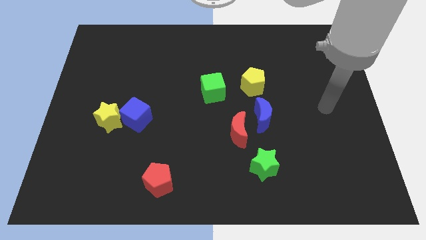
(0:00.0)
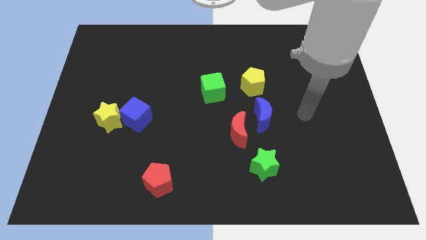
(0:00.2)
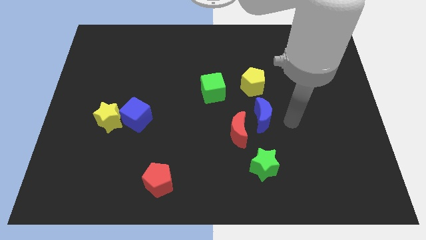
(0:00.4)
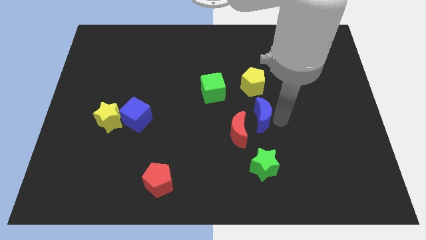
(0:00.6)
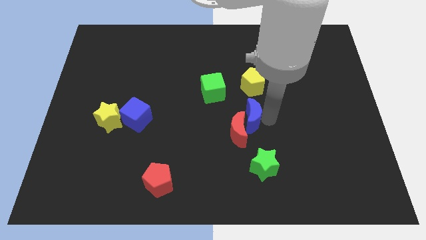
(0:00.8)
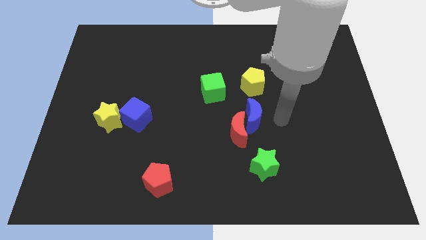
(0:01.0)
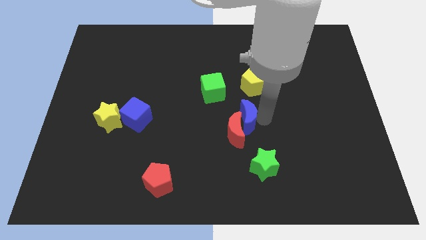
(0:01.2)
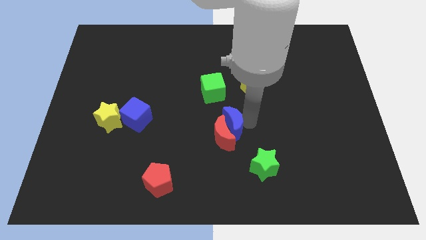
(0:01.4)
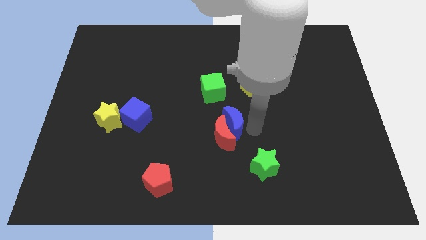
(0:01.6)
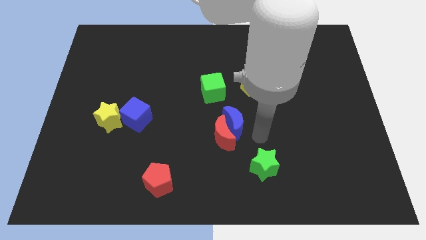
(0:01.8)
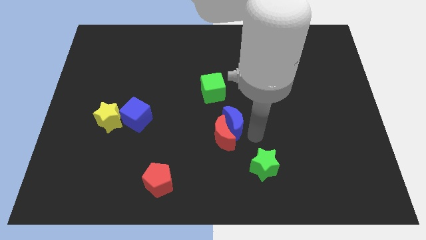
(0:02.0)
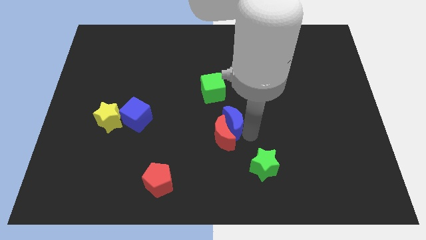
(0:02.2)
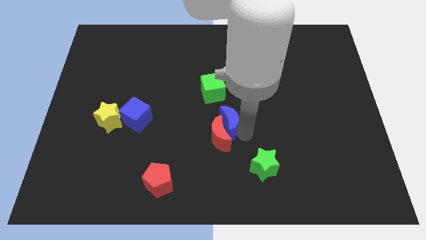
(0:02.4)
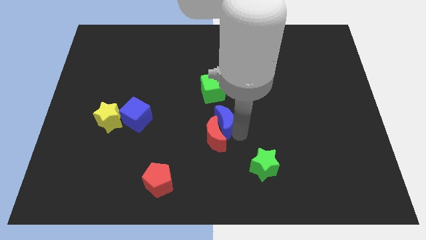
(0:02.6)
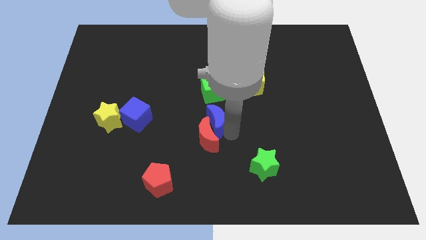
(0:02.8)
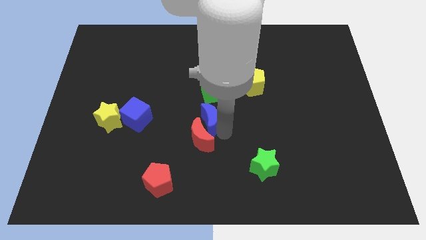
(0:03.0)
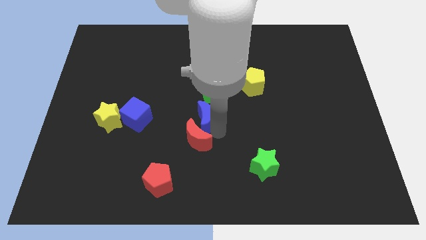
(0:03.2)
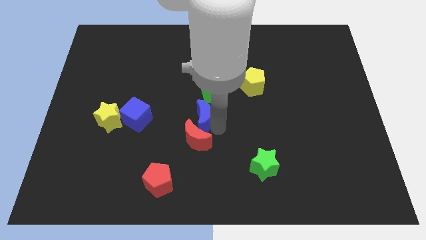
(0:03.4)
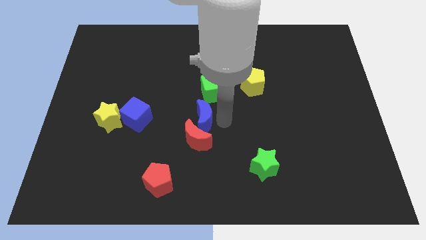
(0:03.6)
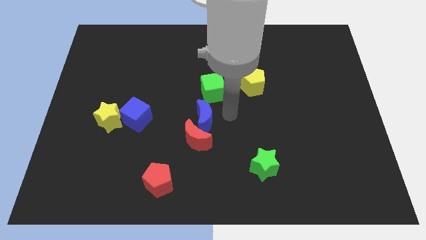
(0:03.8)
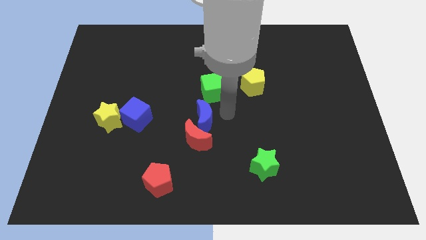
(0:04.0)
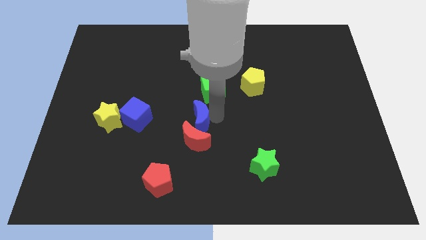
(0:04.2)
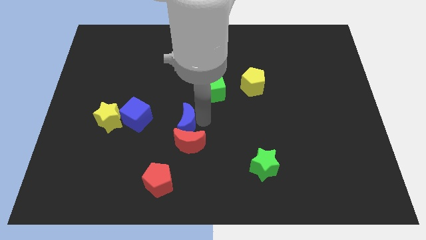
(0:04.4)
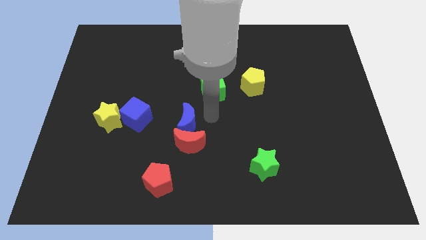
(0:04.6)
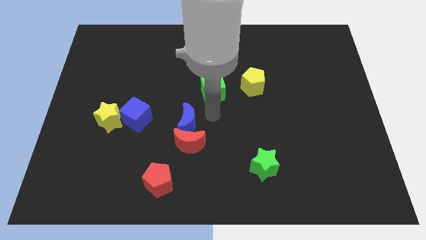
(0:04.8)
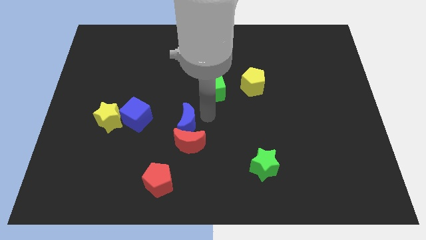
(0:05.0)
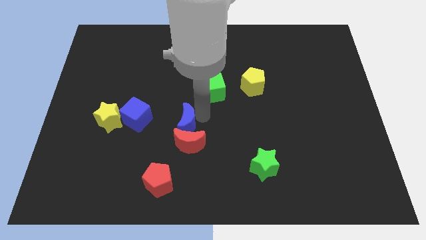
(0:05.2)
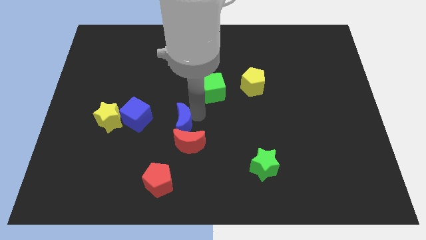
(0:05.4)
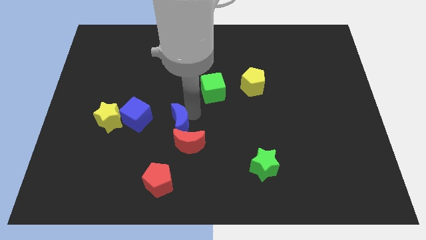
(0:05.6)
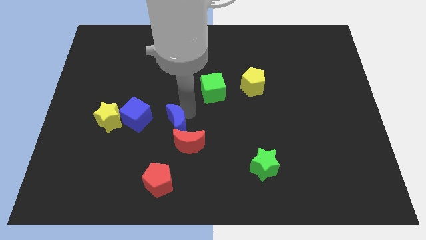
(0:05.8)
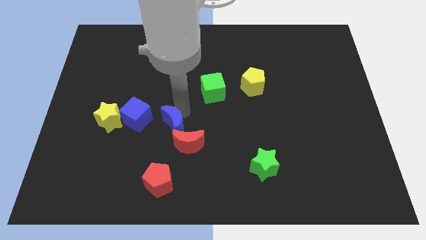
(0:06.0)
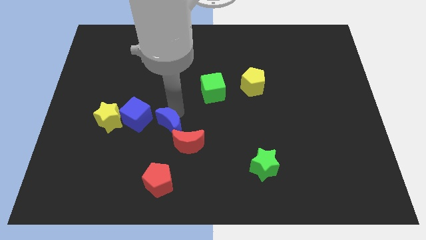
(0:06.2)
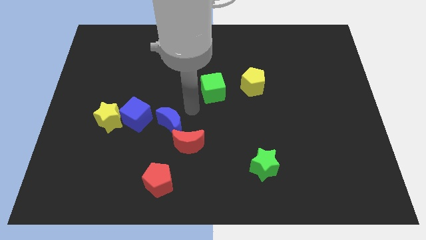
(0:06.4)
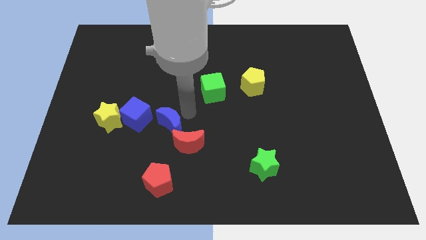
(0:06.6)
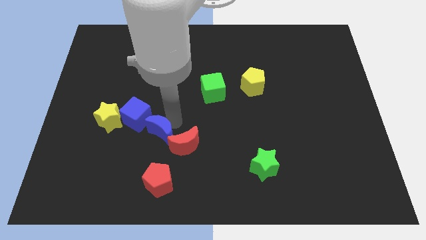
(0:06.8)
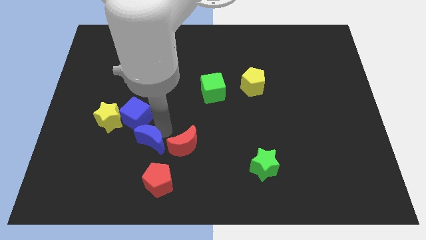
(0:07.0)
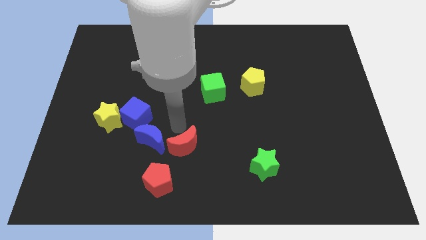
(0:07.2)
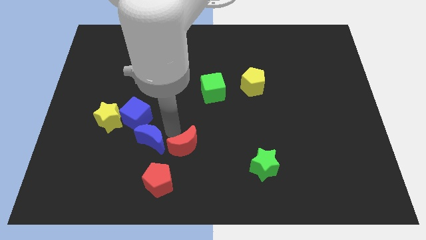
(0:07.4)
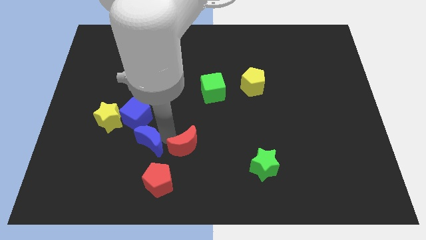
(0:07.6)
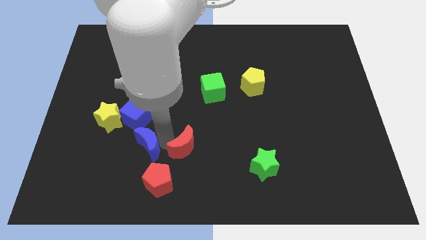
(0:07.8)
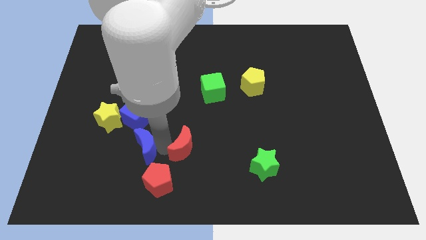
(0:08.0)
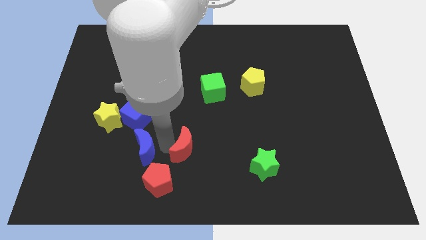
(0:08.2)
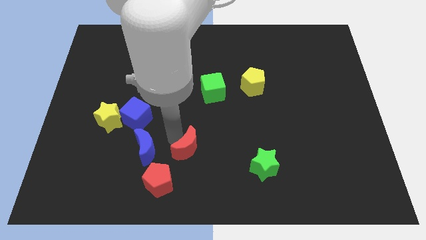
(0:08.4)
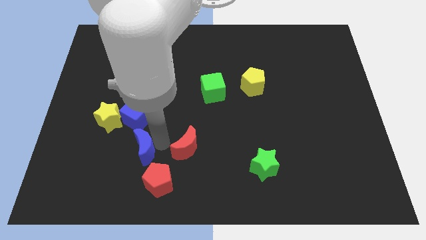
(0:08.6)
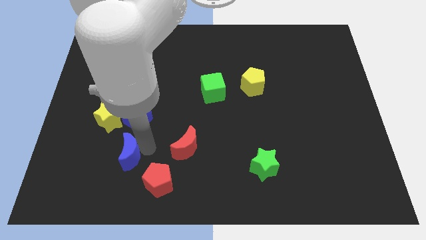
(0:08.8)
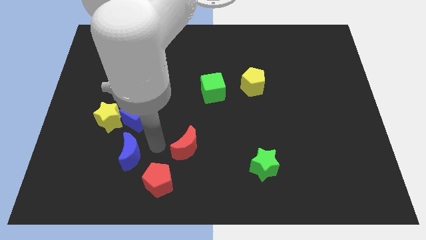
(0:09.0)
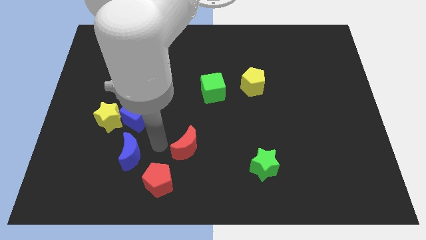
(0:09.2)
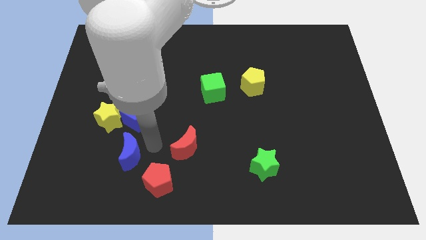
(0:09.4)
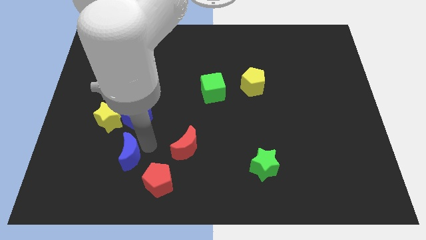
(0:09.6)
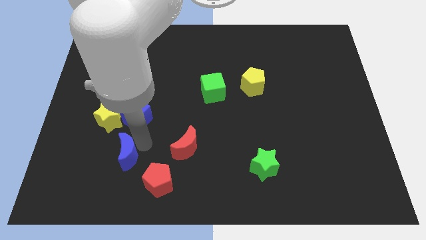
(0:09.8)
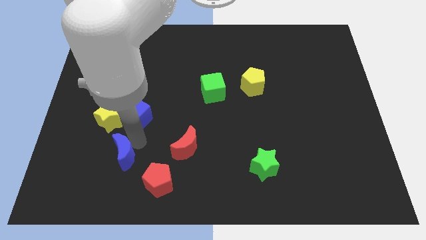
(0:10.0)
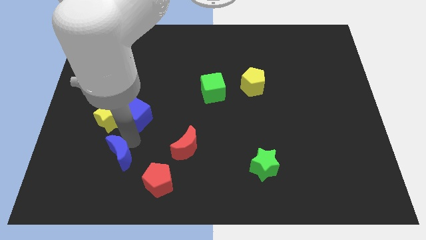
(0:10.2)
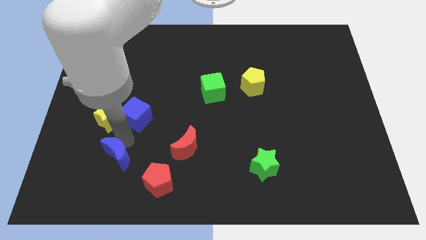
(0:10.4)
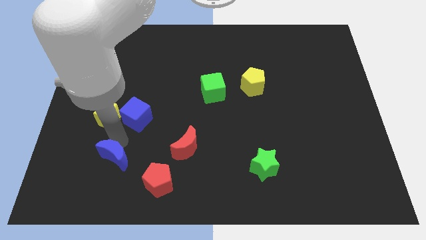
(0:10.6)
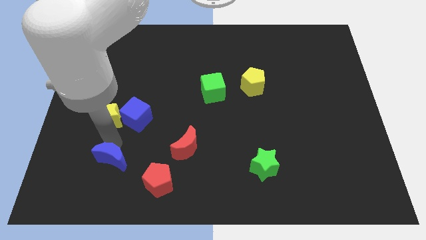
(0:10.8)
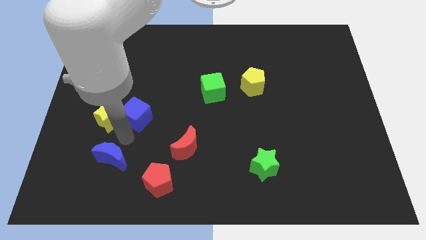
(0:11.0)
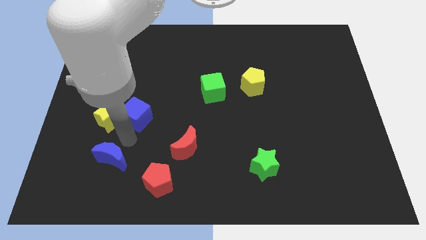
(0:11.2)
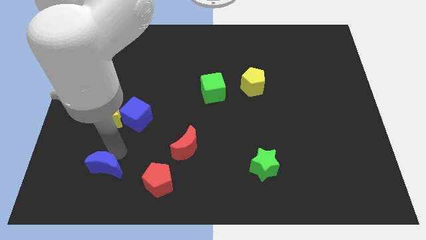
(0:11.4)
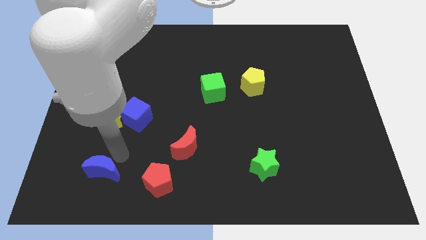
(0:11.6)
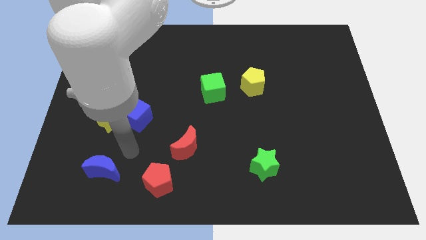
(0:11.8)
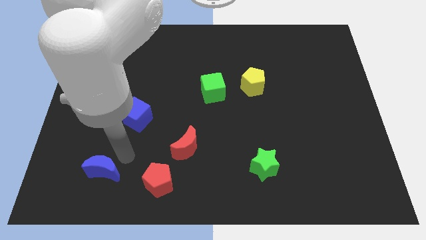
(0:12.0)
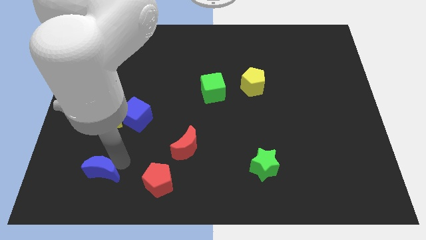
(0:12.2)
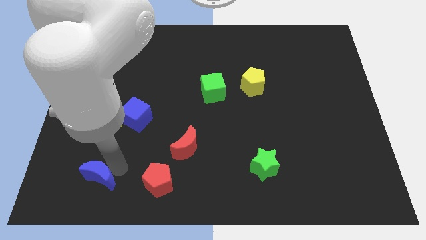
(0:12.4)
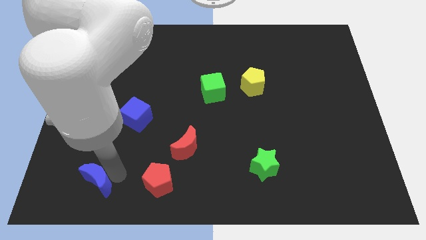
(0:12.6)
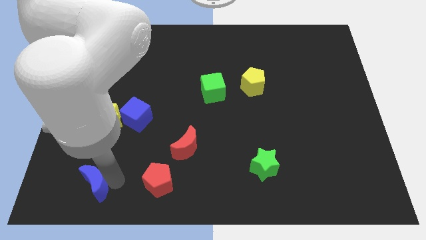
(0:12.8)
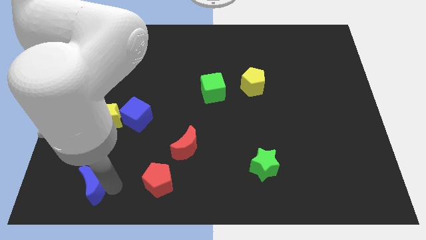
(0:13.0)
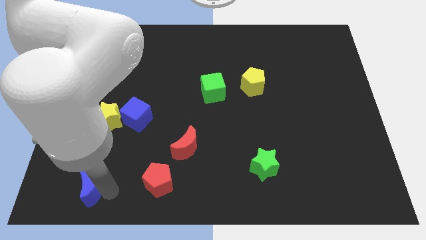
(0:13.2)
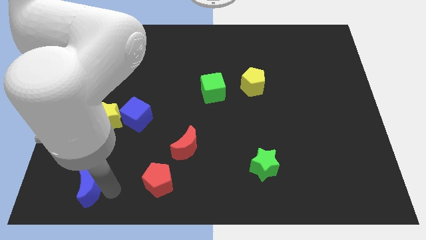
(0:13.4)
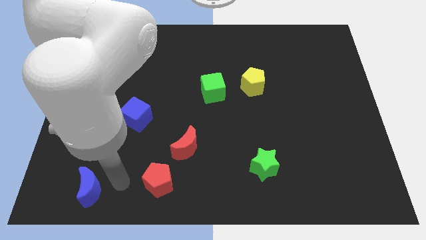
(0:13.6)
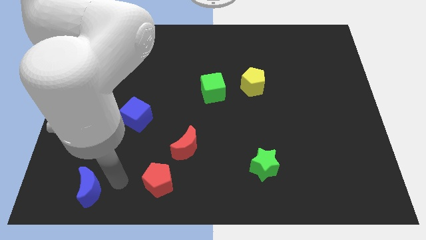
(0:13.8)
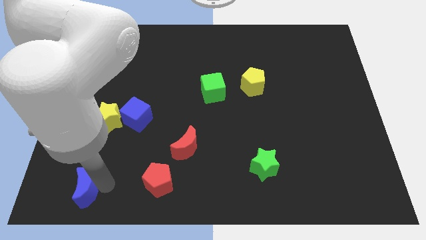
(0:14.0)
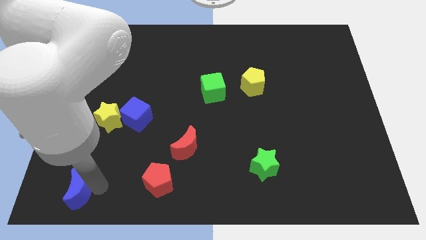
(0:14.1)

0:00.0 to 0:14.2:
push the blue moon to the lower left corner

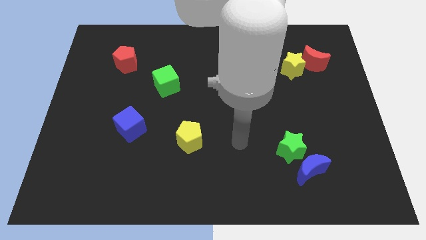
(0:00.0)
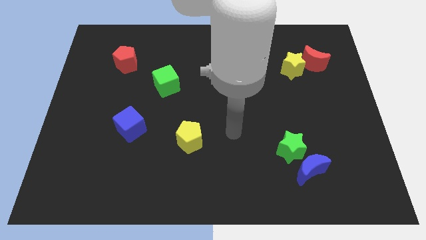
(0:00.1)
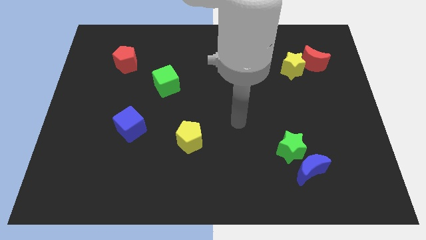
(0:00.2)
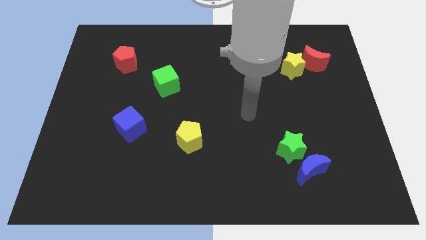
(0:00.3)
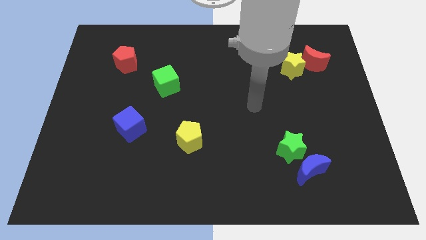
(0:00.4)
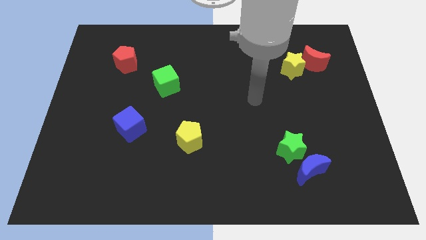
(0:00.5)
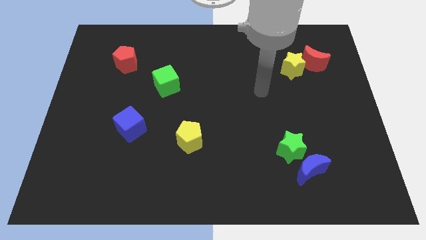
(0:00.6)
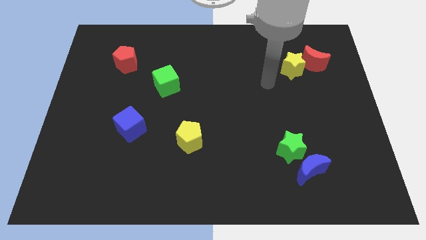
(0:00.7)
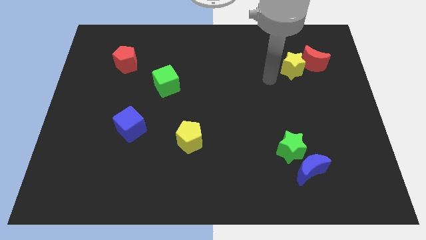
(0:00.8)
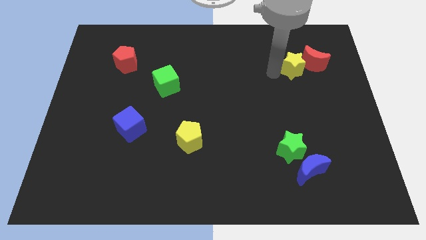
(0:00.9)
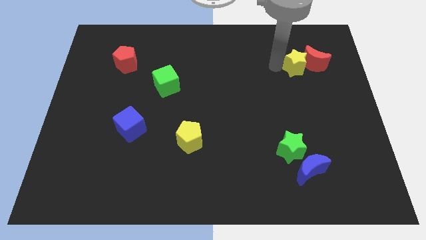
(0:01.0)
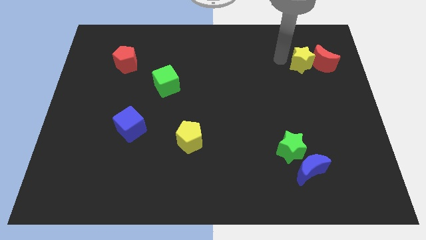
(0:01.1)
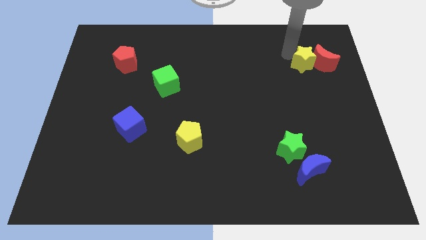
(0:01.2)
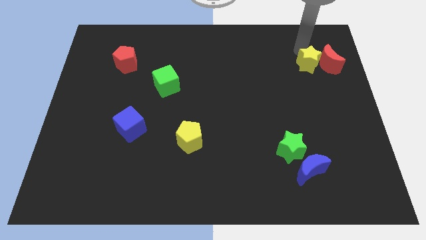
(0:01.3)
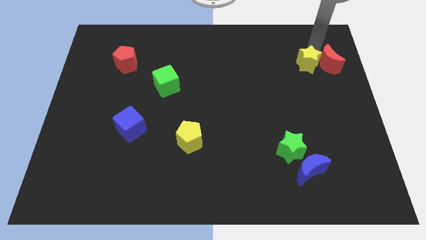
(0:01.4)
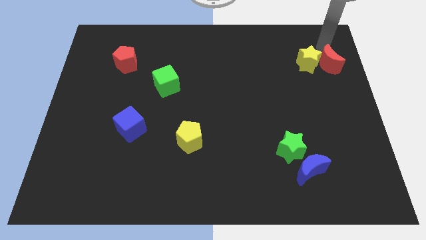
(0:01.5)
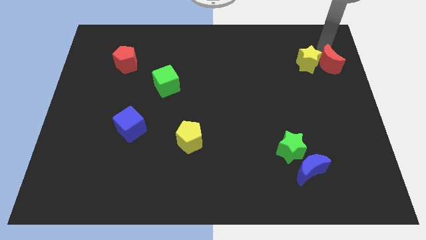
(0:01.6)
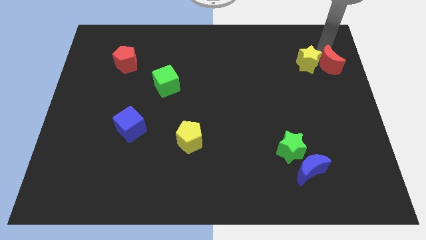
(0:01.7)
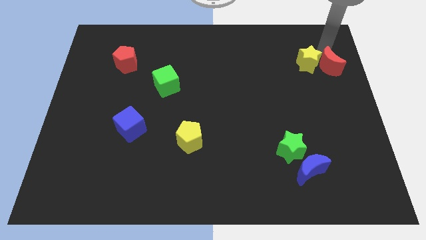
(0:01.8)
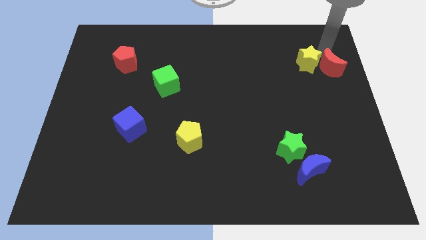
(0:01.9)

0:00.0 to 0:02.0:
slide the red moon to the right side of the board
